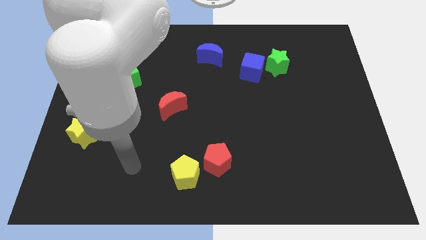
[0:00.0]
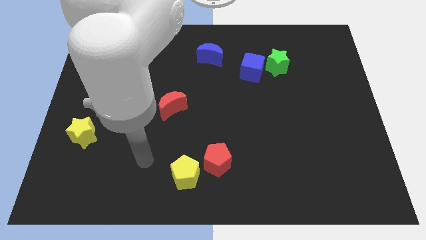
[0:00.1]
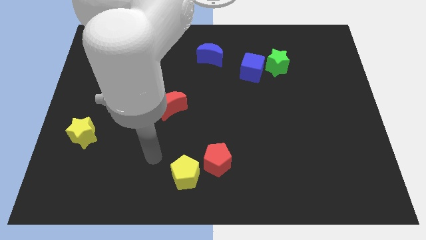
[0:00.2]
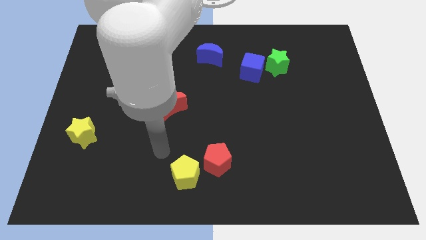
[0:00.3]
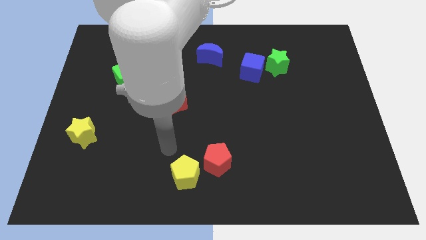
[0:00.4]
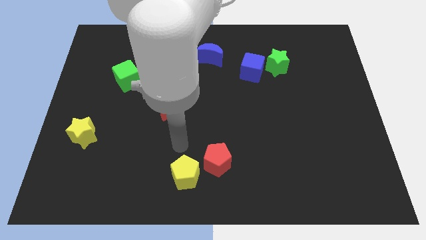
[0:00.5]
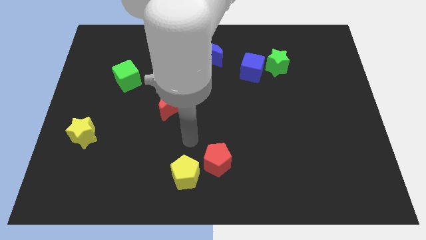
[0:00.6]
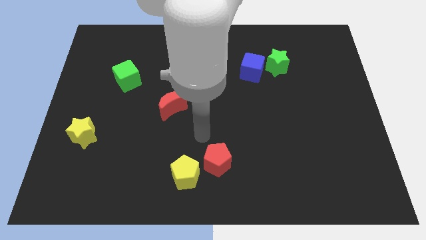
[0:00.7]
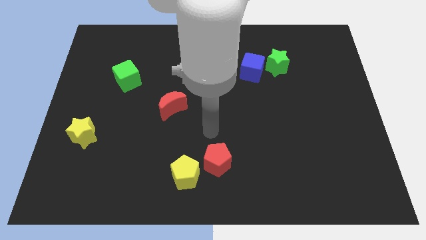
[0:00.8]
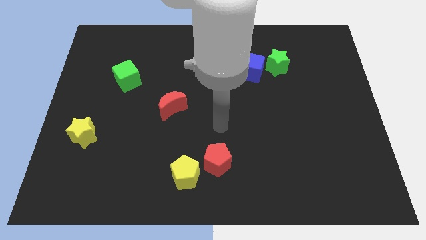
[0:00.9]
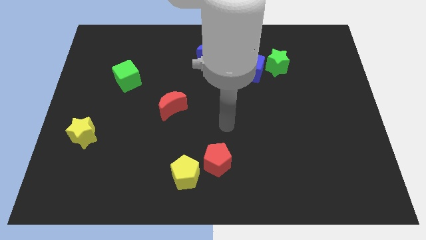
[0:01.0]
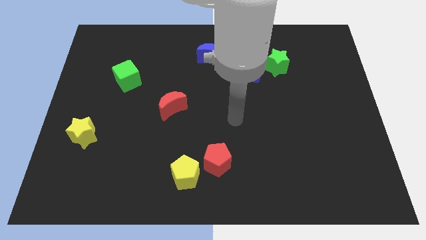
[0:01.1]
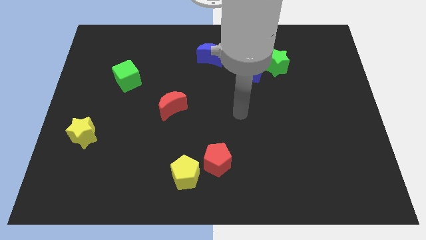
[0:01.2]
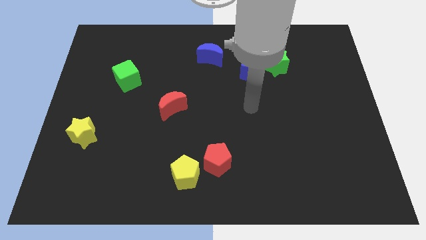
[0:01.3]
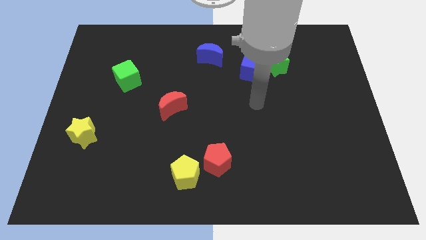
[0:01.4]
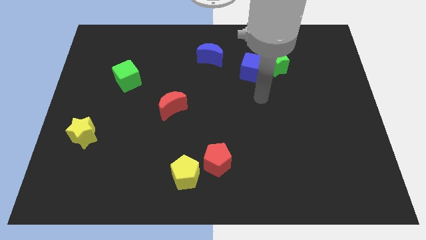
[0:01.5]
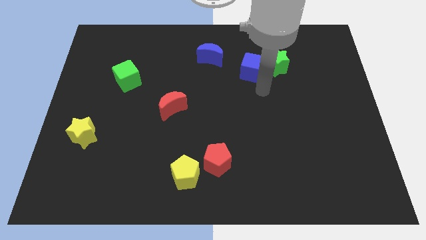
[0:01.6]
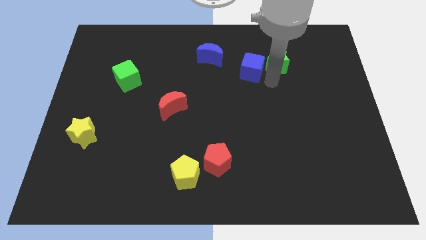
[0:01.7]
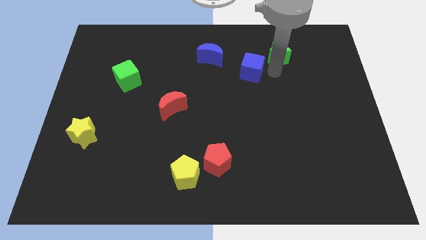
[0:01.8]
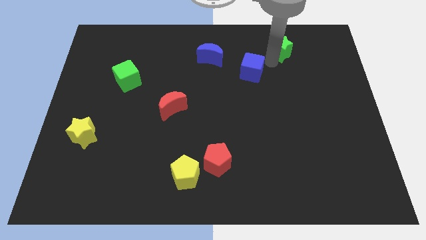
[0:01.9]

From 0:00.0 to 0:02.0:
separate the blue cube from the green star

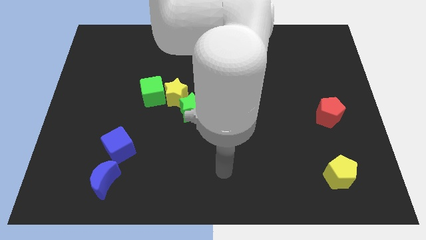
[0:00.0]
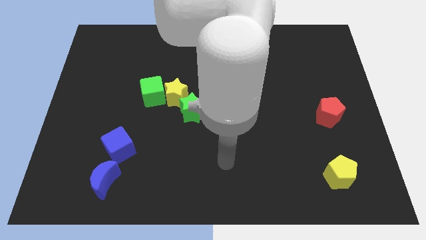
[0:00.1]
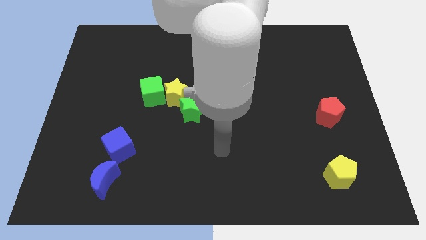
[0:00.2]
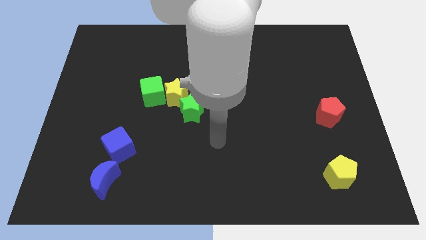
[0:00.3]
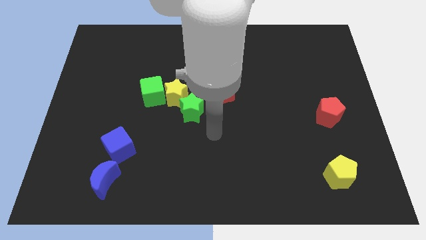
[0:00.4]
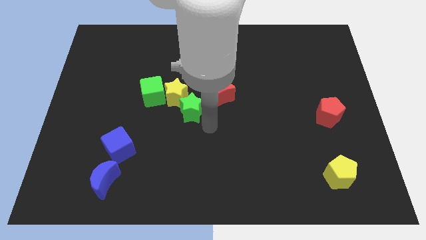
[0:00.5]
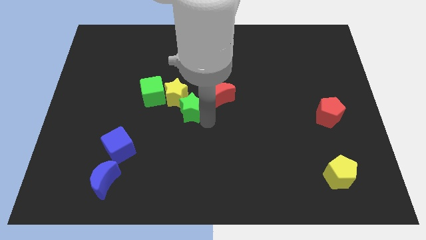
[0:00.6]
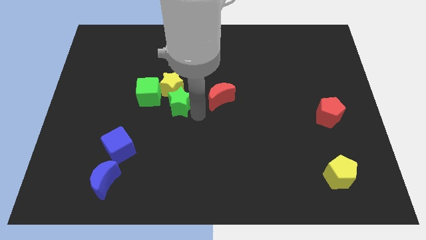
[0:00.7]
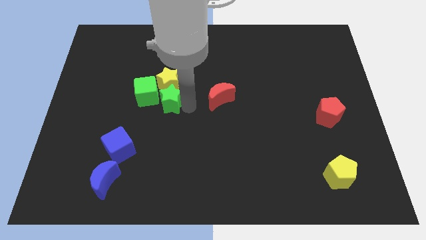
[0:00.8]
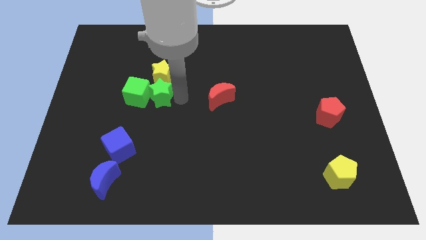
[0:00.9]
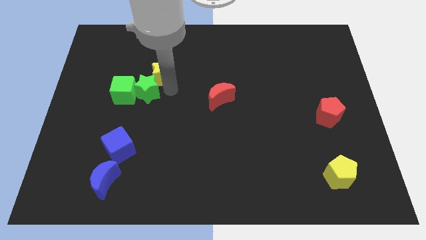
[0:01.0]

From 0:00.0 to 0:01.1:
pull the green cube apart from the yellow star

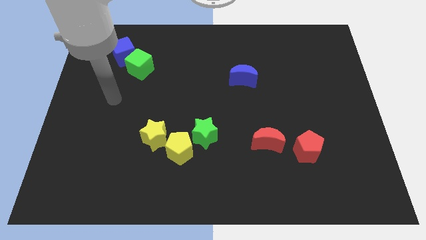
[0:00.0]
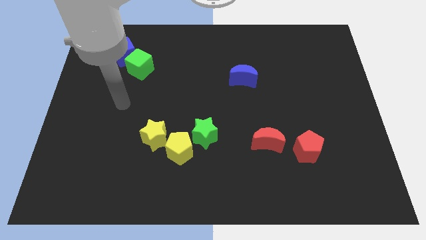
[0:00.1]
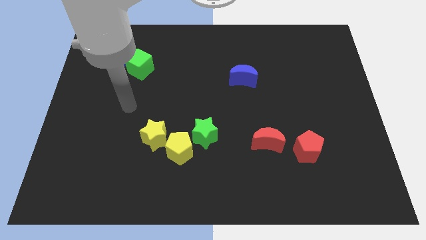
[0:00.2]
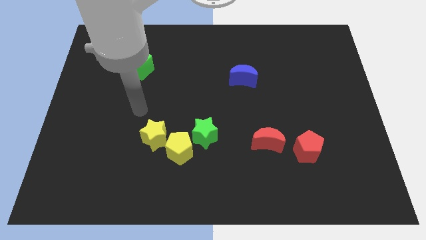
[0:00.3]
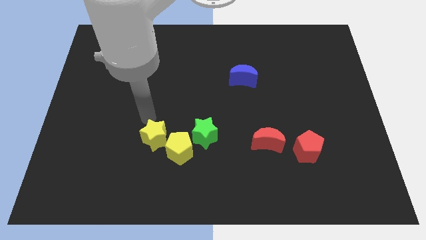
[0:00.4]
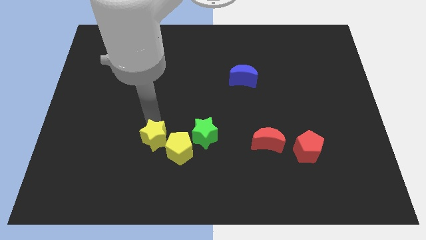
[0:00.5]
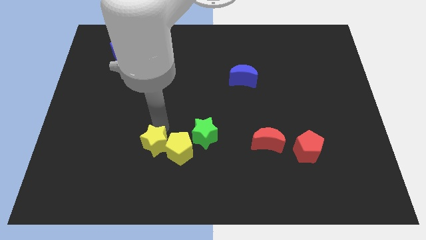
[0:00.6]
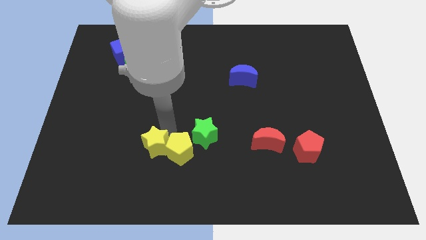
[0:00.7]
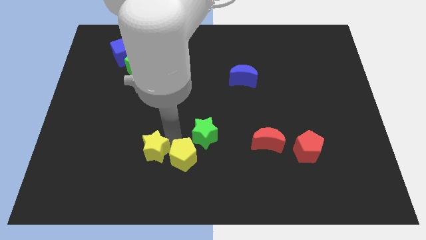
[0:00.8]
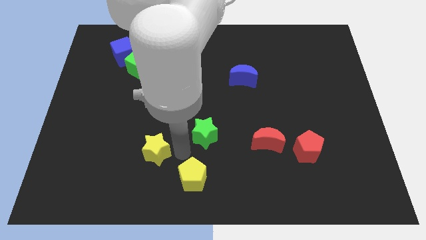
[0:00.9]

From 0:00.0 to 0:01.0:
separate the green star from the yellow pentagon

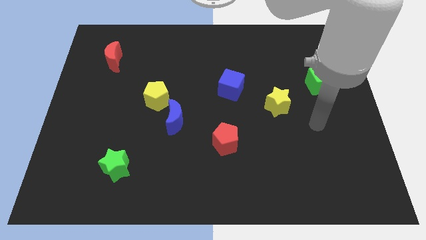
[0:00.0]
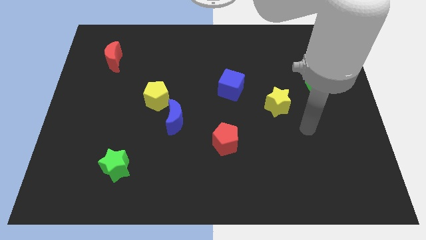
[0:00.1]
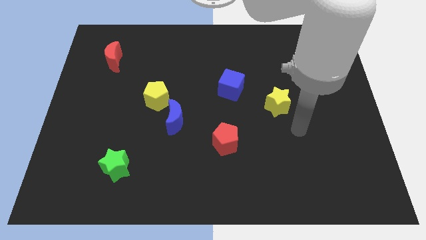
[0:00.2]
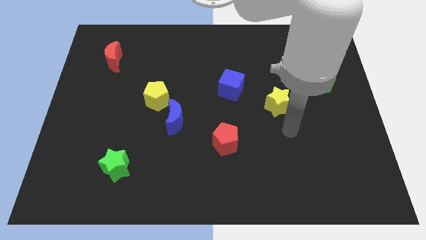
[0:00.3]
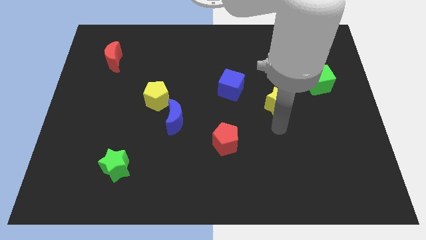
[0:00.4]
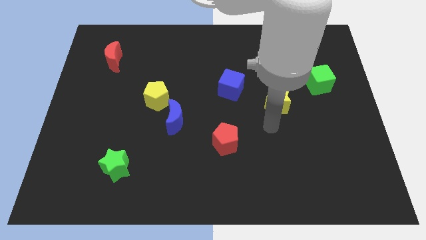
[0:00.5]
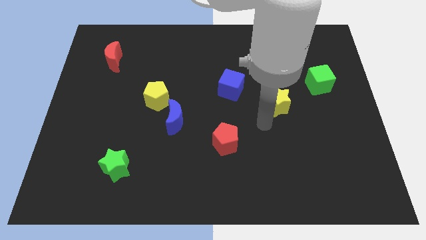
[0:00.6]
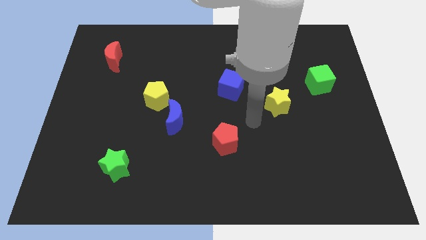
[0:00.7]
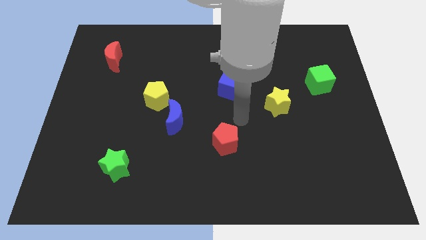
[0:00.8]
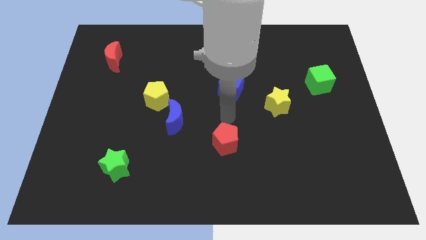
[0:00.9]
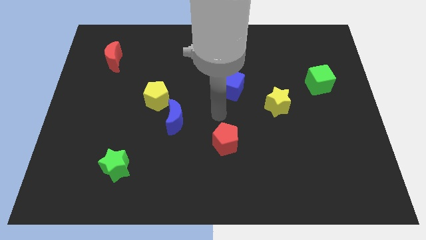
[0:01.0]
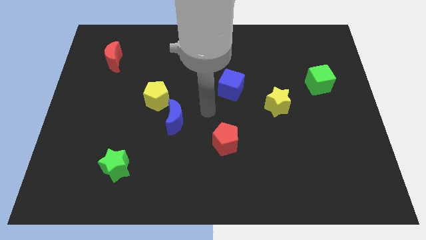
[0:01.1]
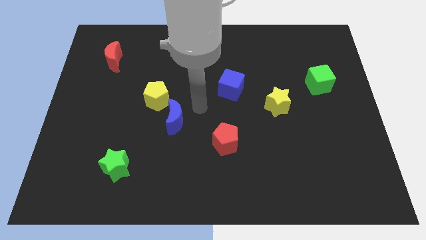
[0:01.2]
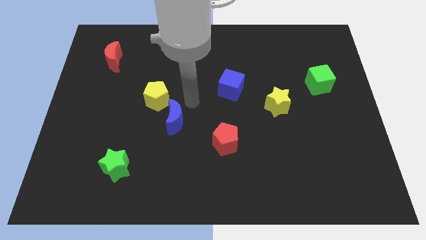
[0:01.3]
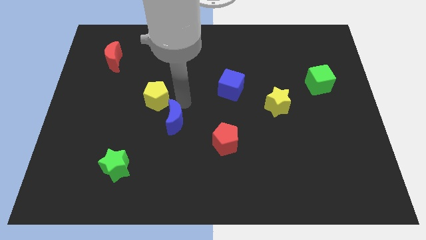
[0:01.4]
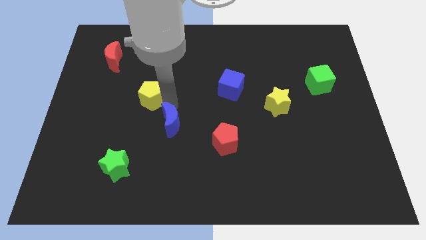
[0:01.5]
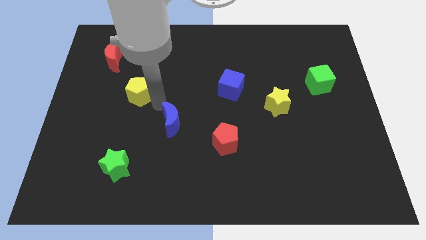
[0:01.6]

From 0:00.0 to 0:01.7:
pull the blue moon apart from the yellow pentagon

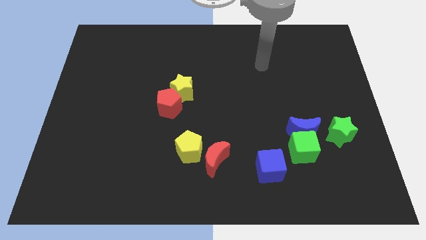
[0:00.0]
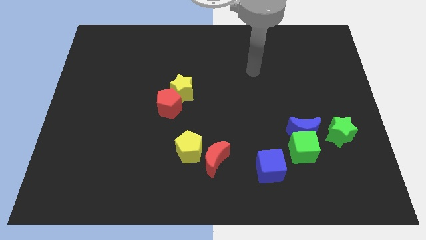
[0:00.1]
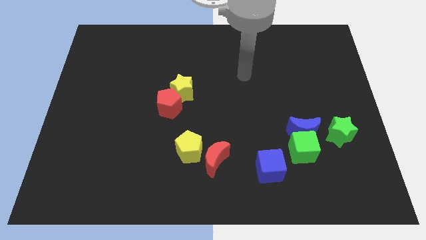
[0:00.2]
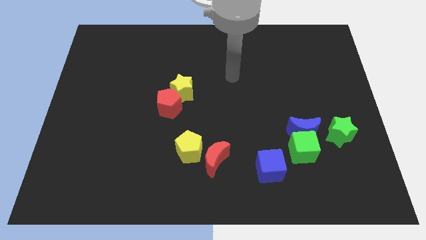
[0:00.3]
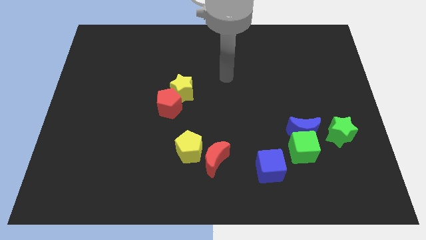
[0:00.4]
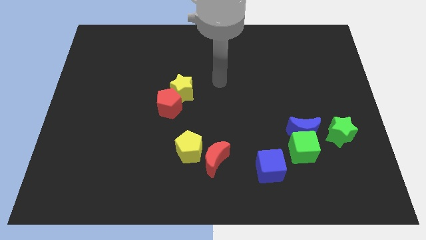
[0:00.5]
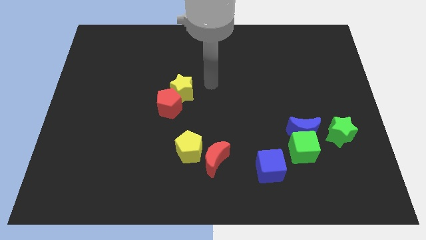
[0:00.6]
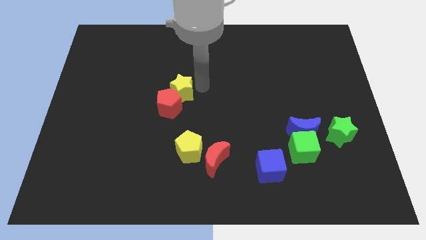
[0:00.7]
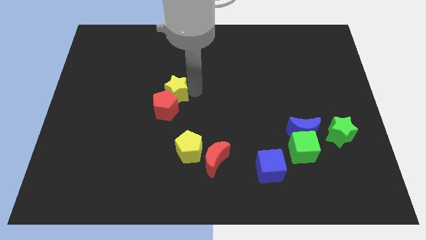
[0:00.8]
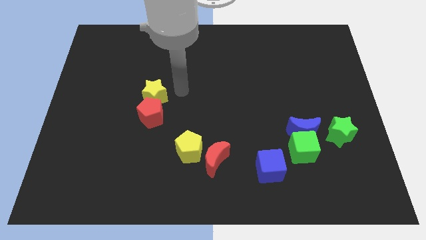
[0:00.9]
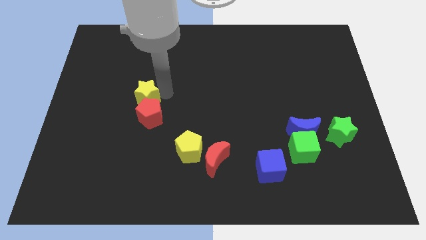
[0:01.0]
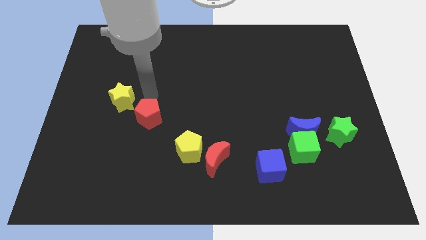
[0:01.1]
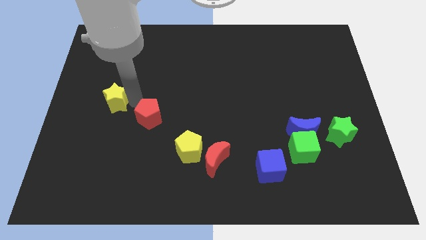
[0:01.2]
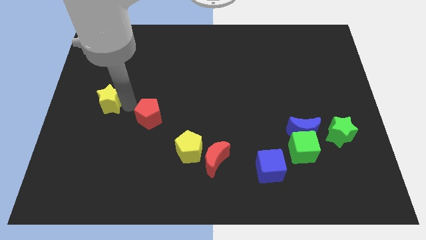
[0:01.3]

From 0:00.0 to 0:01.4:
pull the red pentagon apart from the yellow star

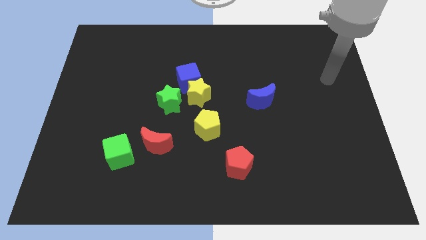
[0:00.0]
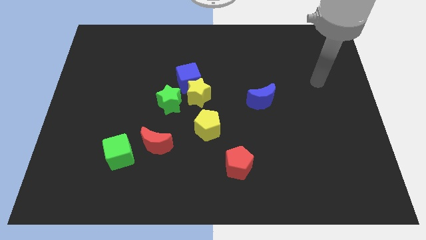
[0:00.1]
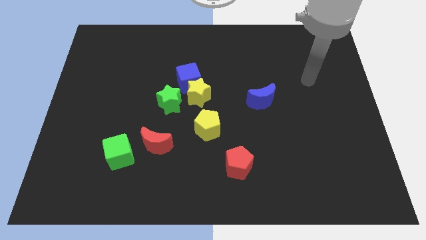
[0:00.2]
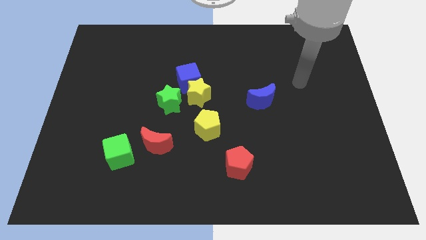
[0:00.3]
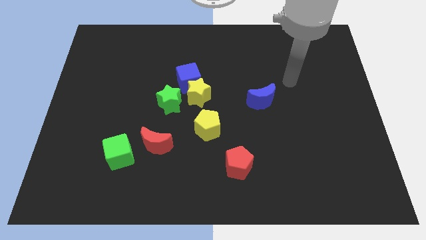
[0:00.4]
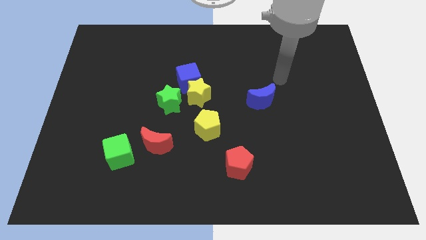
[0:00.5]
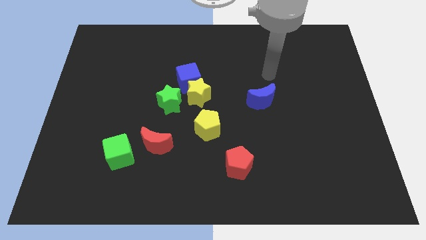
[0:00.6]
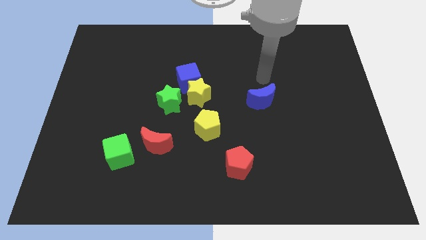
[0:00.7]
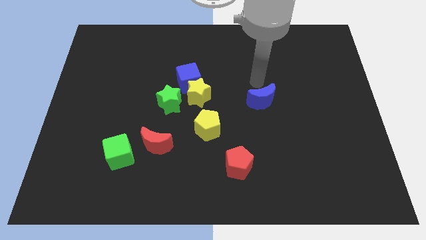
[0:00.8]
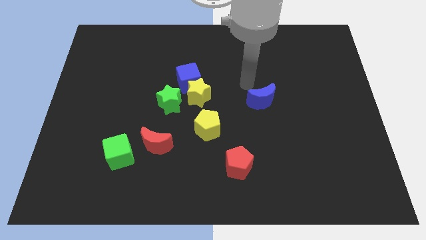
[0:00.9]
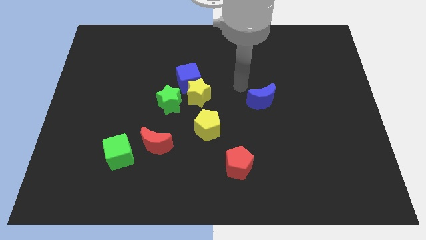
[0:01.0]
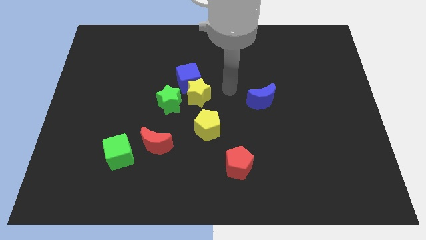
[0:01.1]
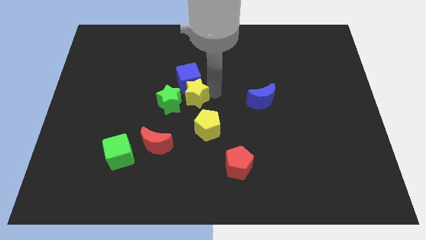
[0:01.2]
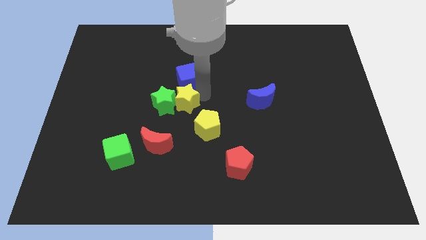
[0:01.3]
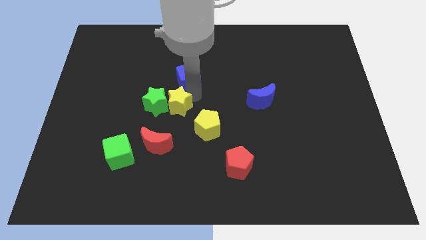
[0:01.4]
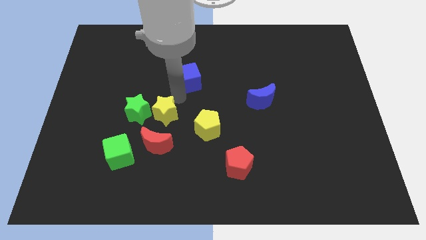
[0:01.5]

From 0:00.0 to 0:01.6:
move the blue cube away from the yellow star and green star

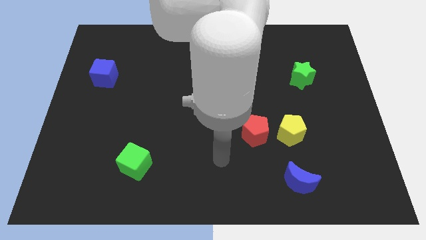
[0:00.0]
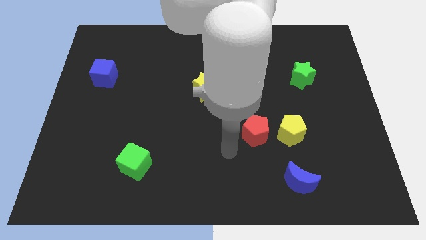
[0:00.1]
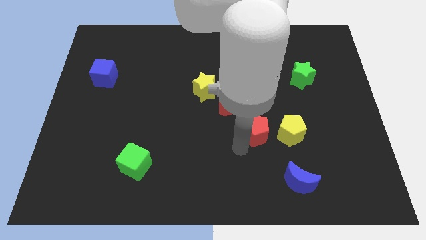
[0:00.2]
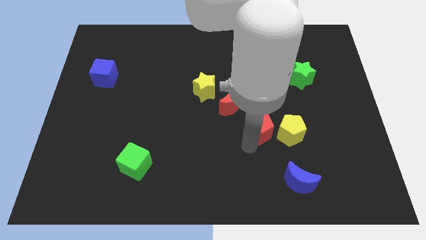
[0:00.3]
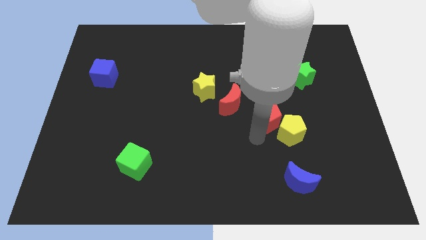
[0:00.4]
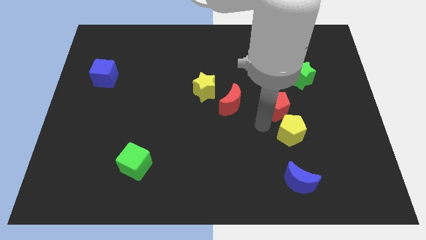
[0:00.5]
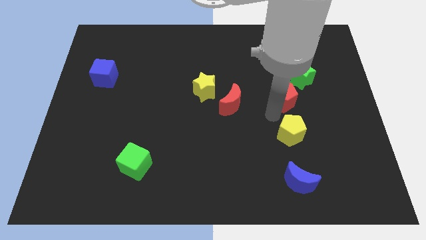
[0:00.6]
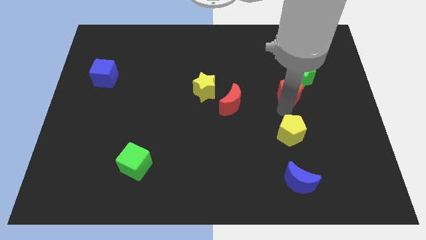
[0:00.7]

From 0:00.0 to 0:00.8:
pull the yellow pentagon apart from the red pentagon
